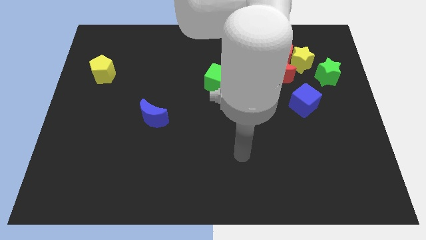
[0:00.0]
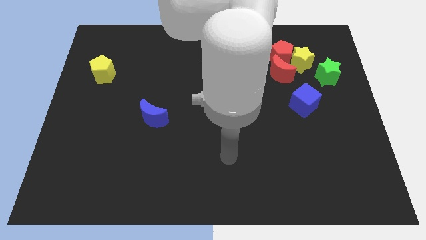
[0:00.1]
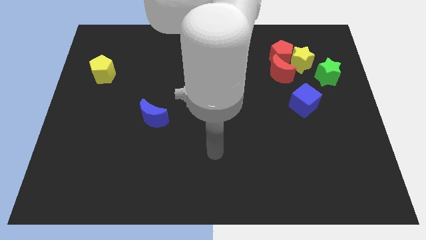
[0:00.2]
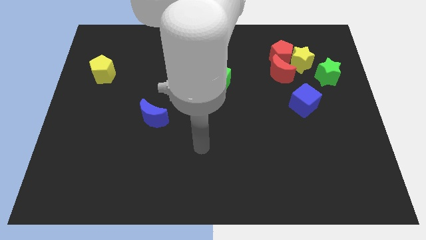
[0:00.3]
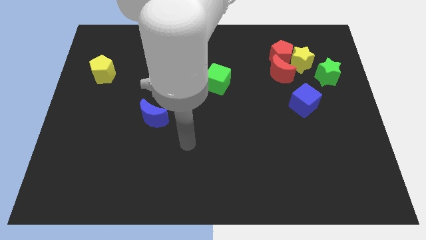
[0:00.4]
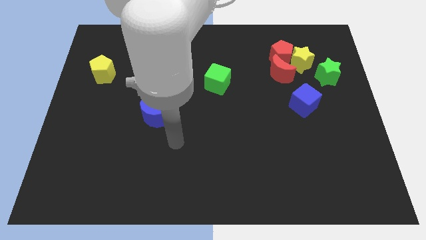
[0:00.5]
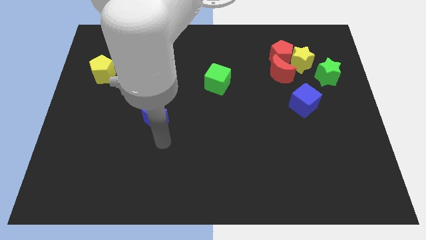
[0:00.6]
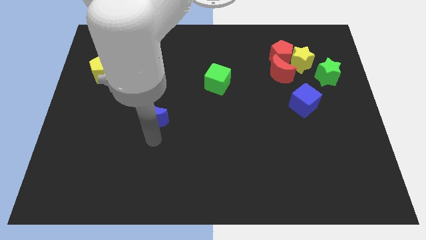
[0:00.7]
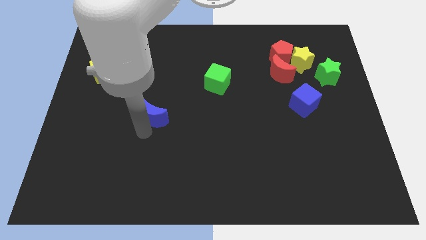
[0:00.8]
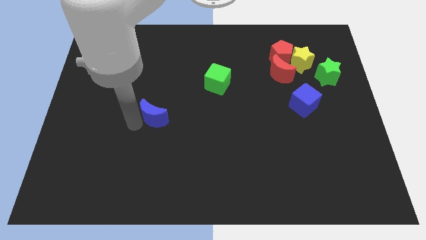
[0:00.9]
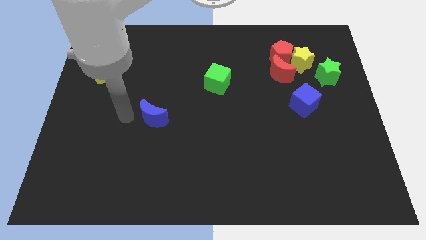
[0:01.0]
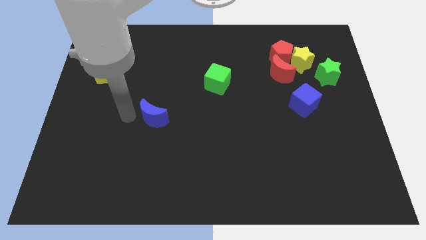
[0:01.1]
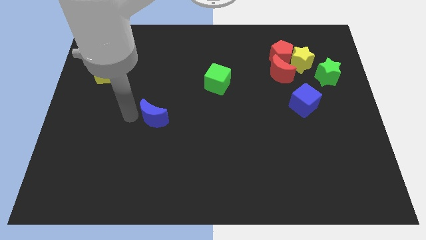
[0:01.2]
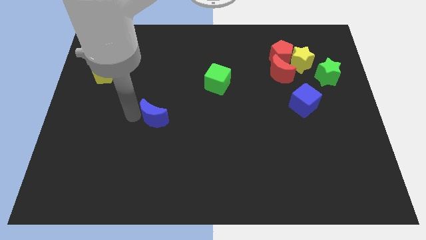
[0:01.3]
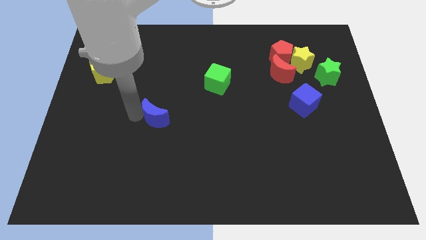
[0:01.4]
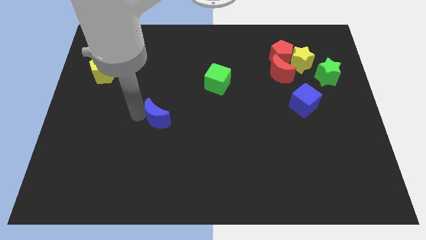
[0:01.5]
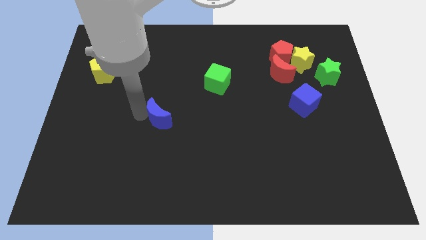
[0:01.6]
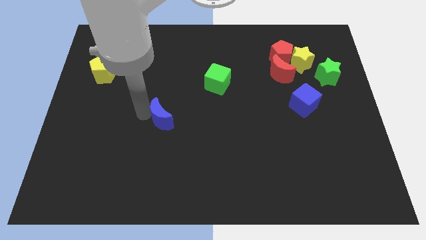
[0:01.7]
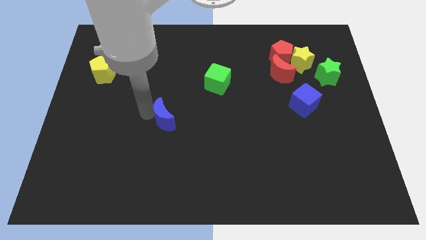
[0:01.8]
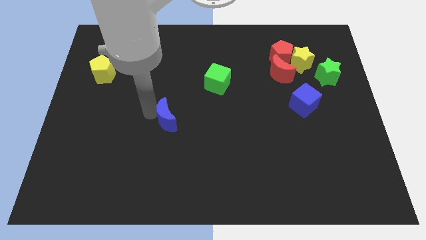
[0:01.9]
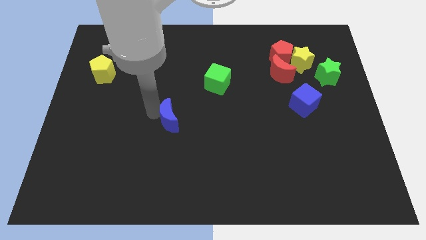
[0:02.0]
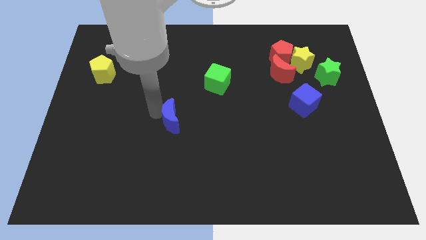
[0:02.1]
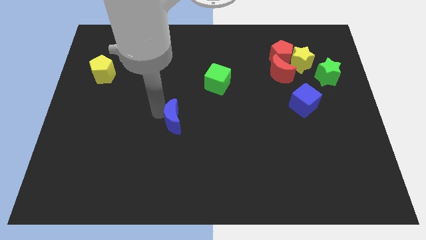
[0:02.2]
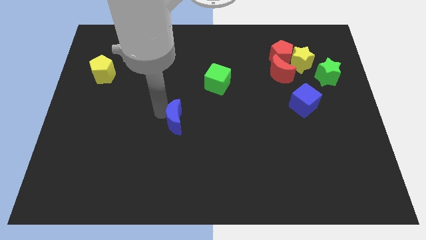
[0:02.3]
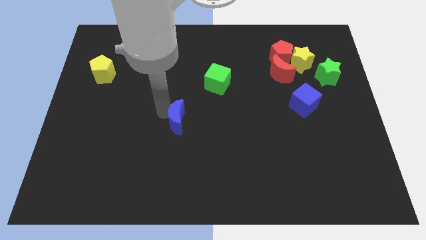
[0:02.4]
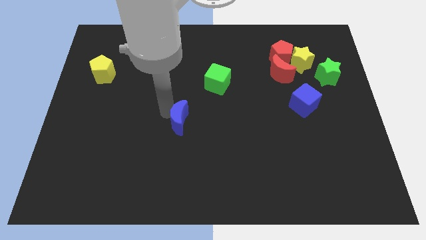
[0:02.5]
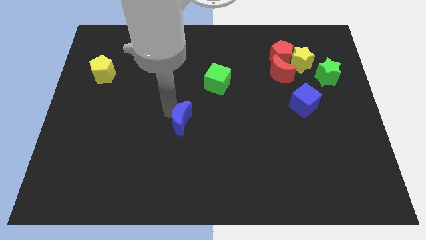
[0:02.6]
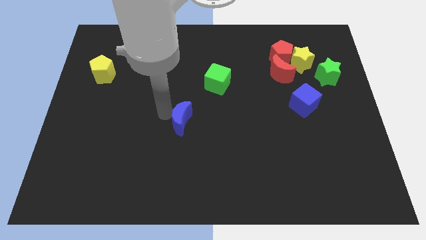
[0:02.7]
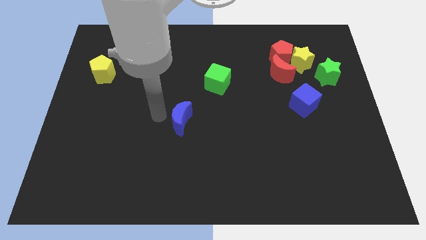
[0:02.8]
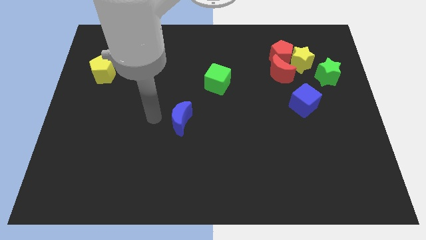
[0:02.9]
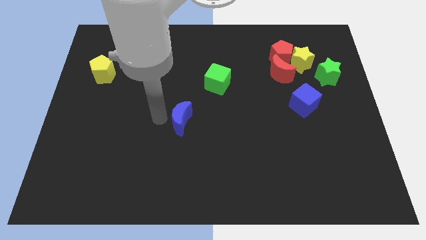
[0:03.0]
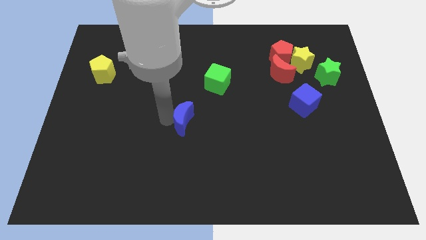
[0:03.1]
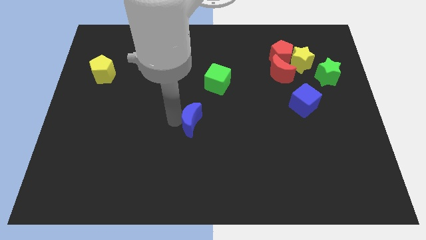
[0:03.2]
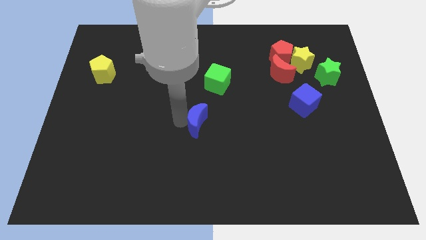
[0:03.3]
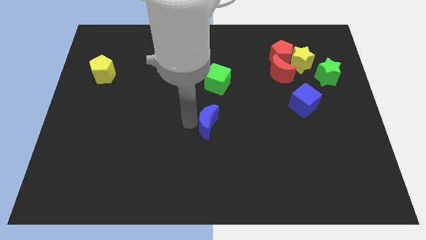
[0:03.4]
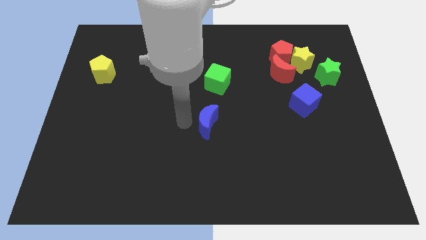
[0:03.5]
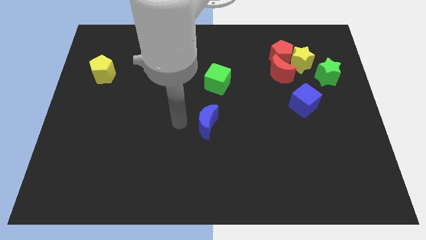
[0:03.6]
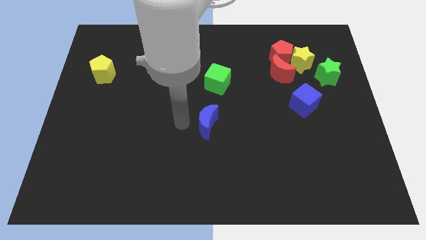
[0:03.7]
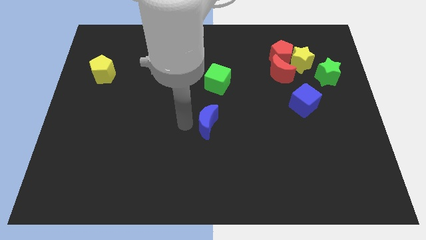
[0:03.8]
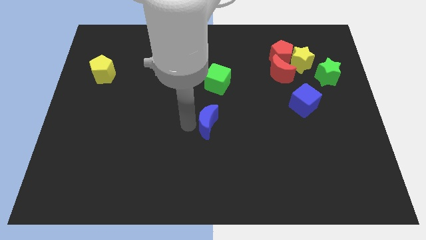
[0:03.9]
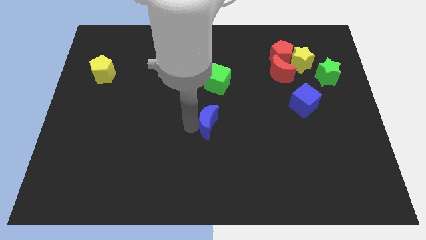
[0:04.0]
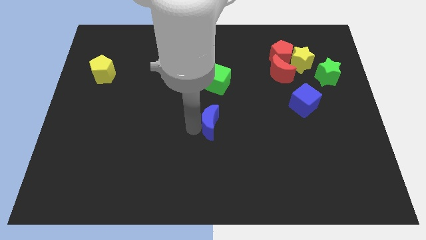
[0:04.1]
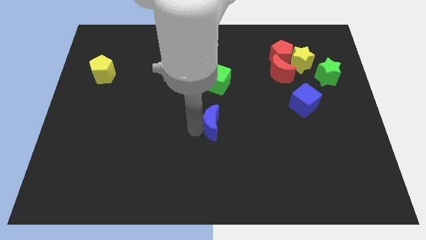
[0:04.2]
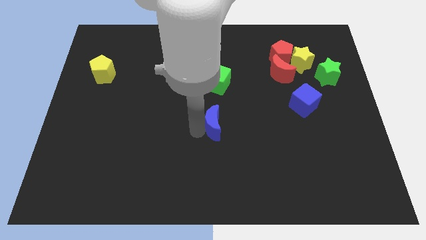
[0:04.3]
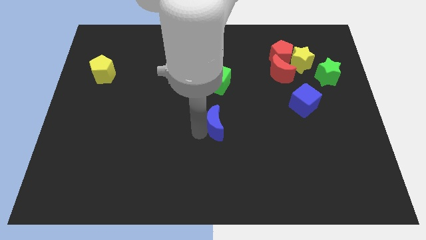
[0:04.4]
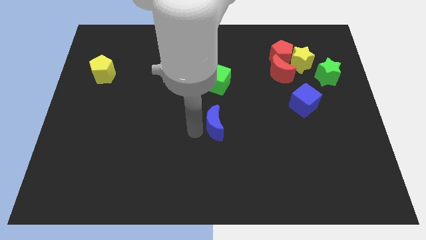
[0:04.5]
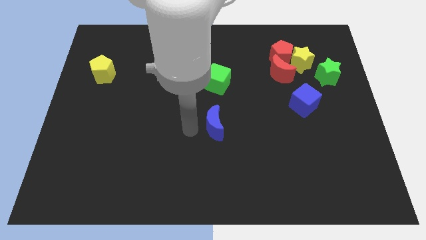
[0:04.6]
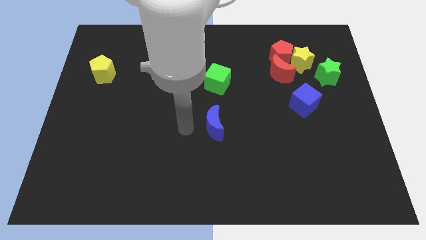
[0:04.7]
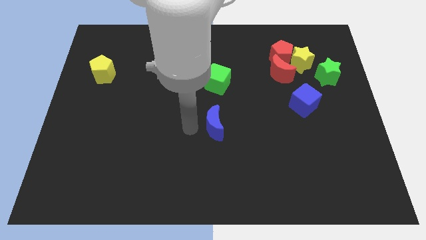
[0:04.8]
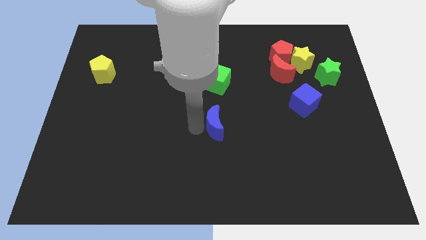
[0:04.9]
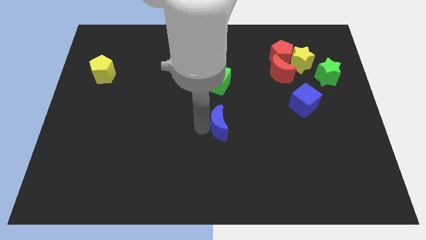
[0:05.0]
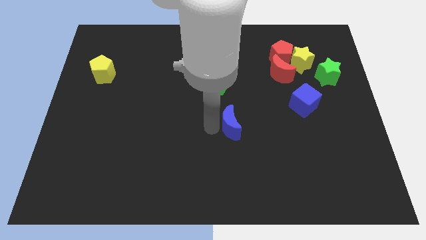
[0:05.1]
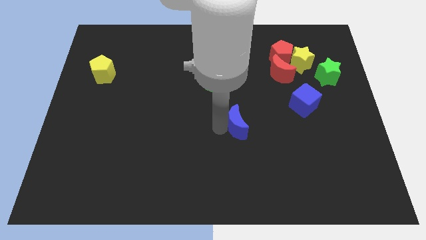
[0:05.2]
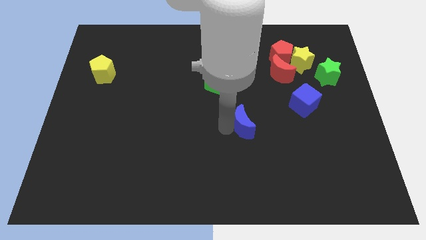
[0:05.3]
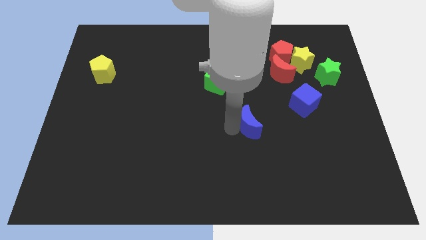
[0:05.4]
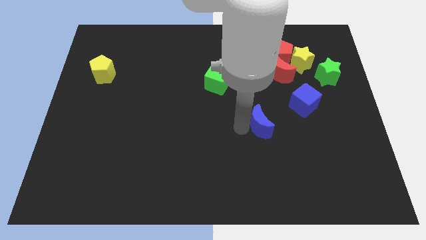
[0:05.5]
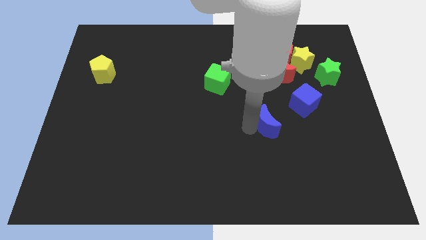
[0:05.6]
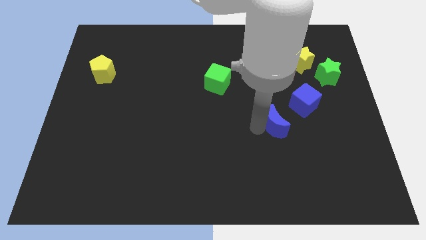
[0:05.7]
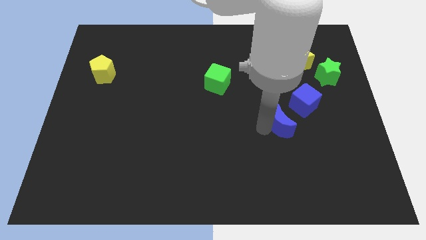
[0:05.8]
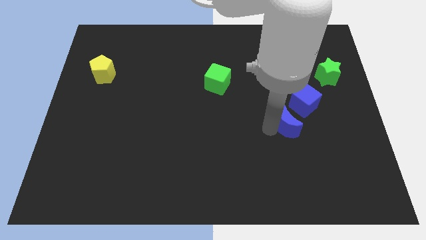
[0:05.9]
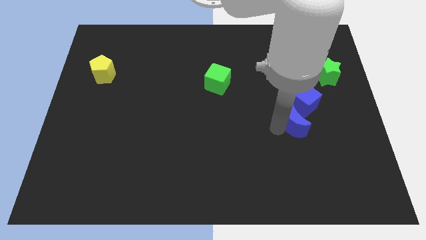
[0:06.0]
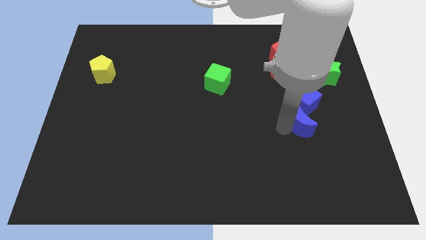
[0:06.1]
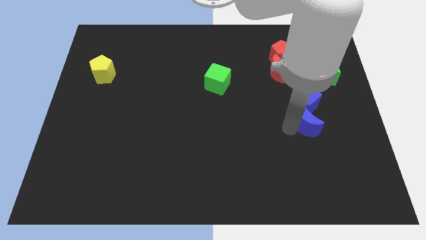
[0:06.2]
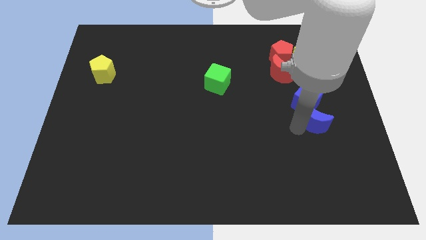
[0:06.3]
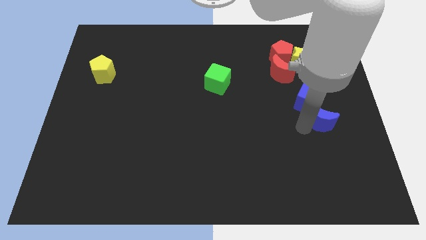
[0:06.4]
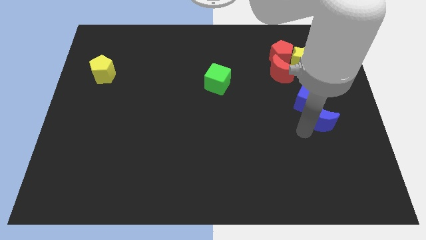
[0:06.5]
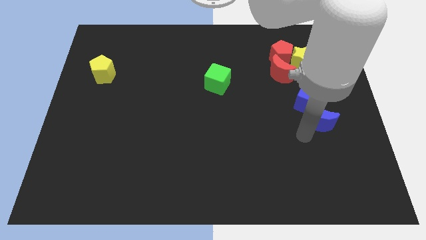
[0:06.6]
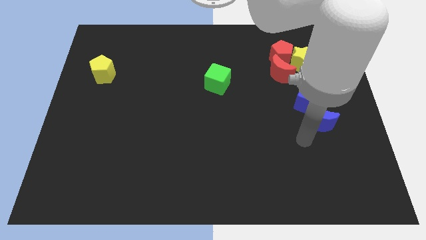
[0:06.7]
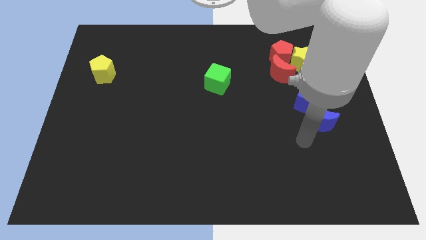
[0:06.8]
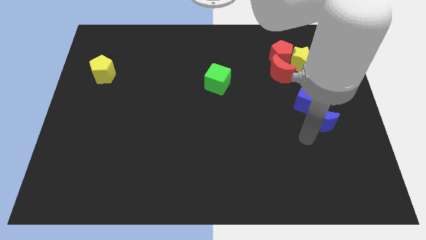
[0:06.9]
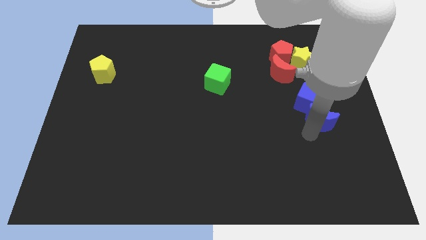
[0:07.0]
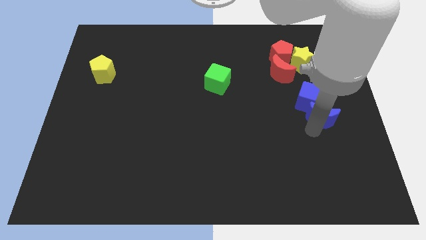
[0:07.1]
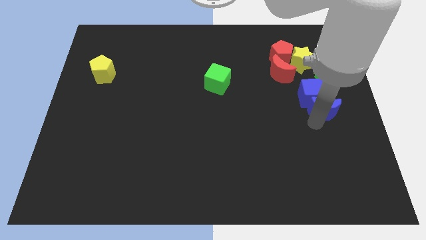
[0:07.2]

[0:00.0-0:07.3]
move the blue moon to the right side
